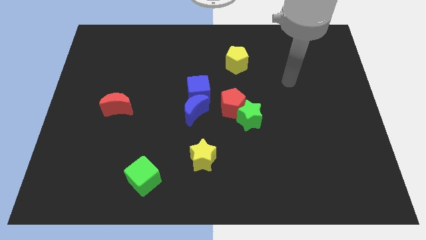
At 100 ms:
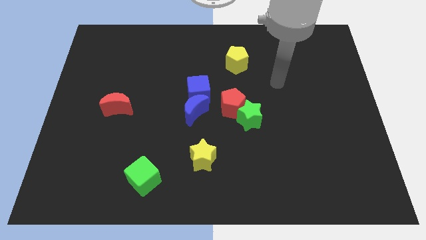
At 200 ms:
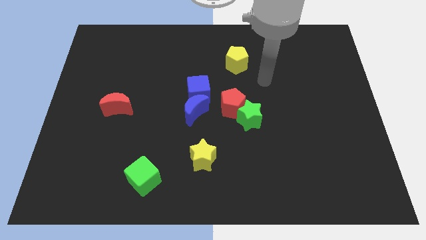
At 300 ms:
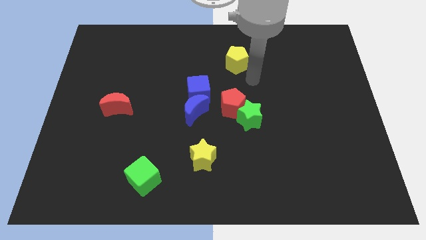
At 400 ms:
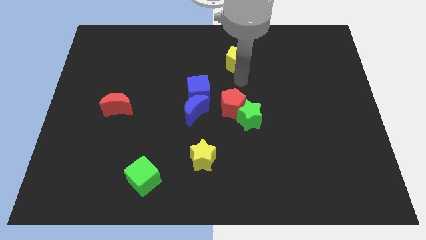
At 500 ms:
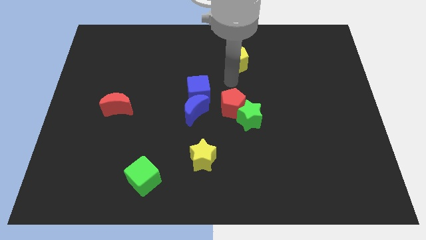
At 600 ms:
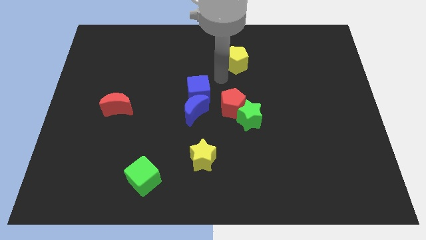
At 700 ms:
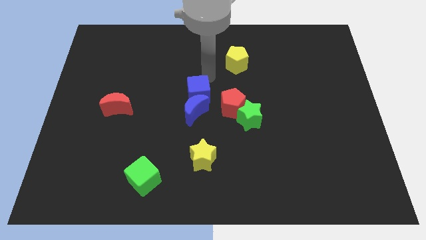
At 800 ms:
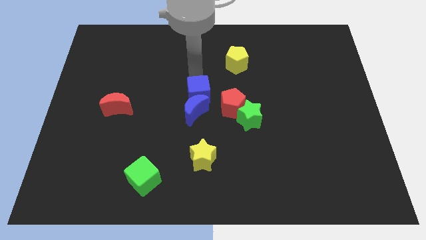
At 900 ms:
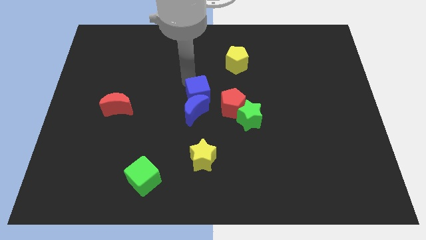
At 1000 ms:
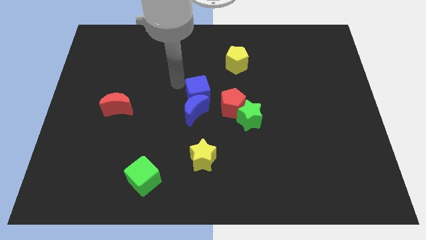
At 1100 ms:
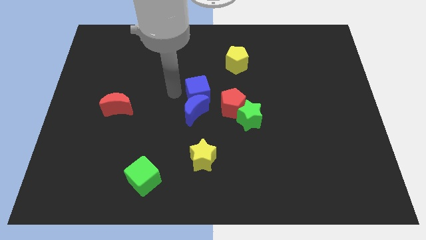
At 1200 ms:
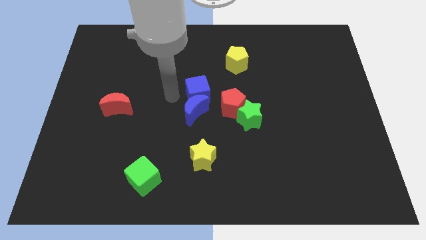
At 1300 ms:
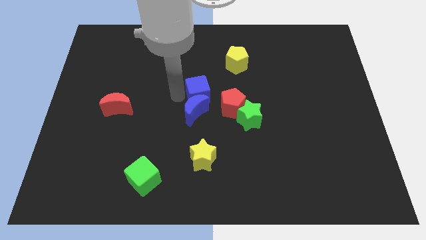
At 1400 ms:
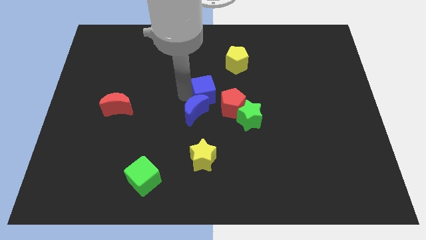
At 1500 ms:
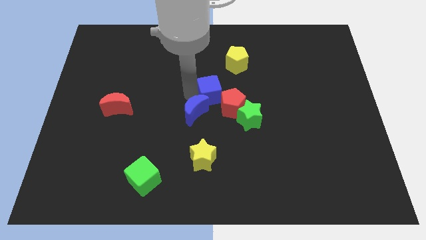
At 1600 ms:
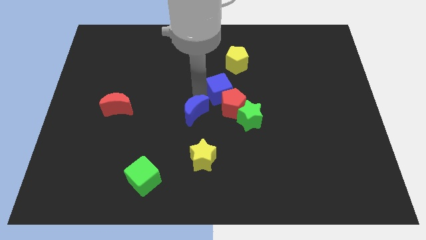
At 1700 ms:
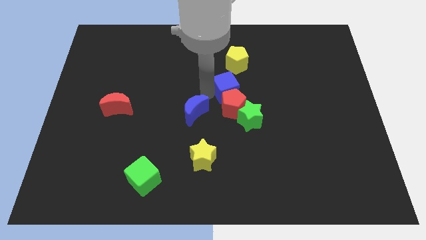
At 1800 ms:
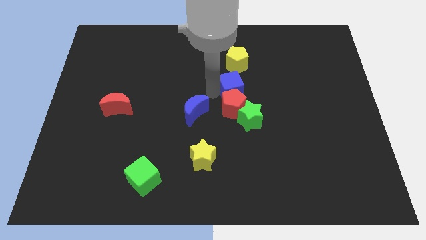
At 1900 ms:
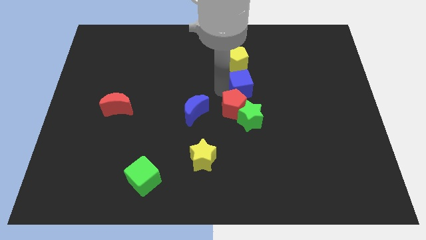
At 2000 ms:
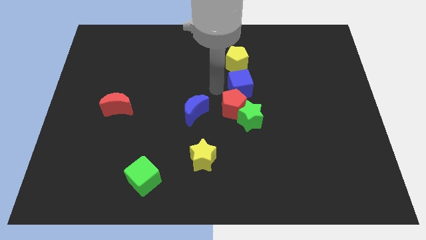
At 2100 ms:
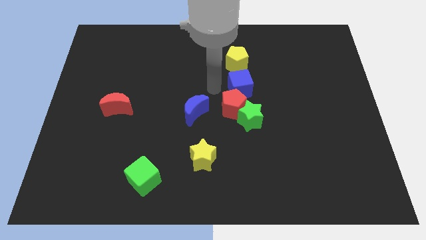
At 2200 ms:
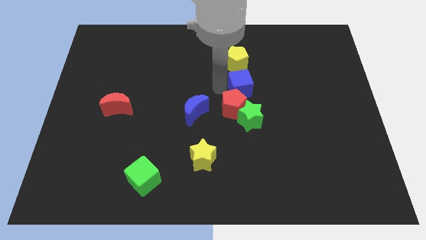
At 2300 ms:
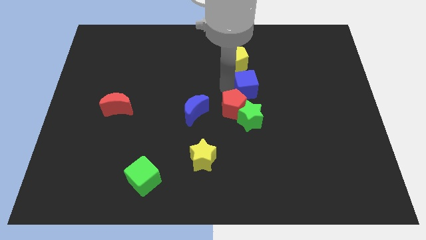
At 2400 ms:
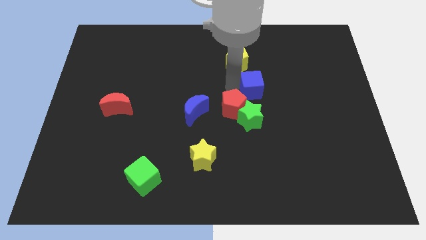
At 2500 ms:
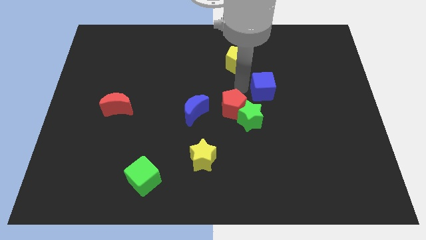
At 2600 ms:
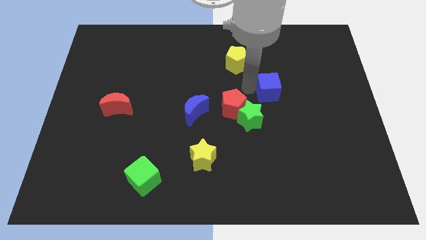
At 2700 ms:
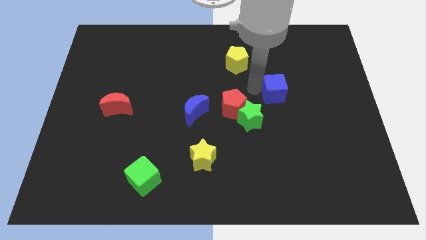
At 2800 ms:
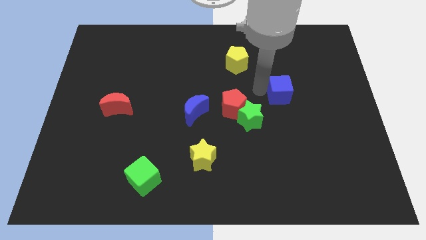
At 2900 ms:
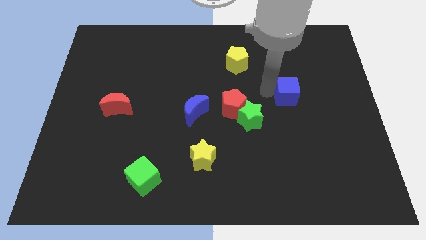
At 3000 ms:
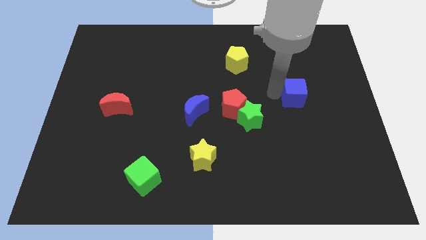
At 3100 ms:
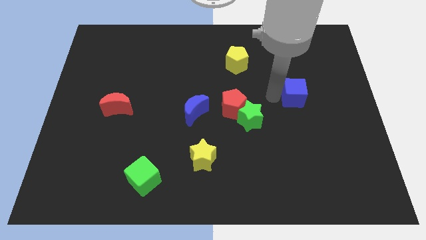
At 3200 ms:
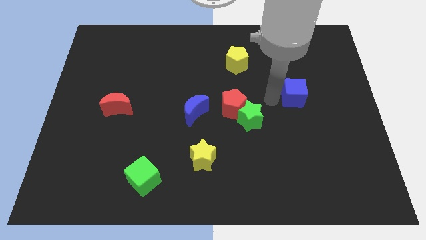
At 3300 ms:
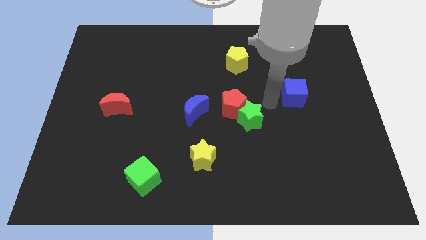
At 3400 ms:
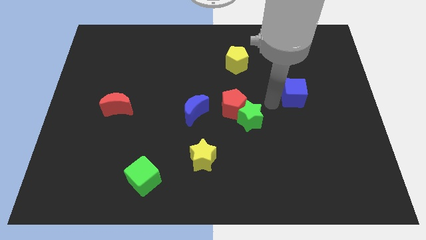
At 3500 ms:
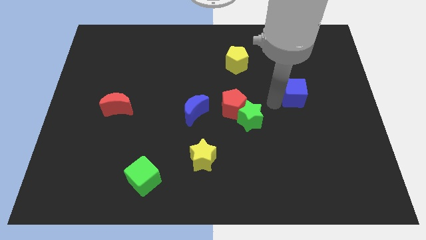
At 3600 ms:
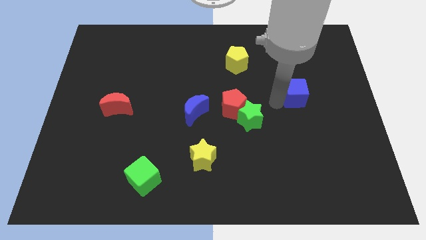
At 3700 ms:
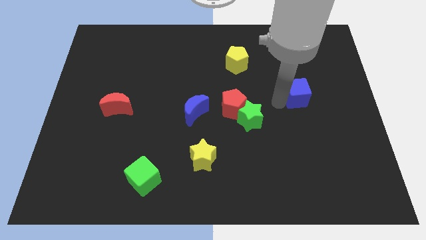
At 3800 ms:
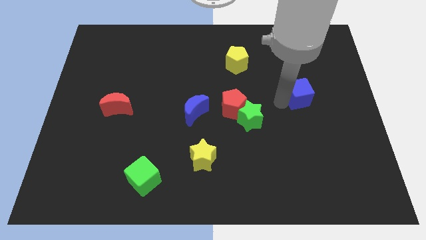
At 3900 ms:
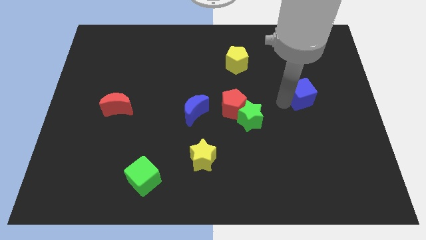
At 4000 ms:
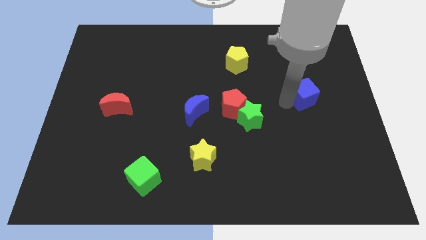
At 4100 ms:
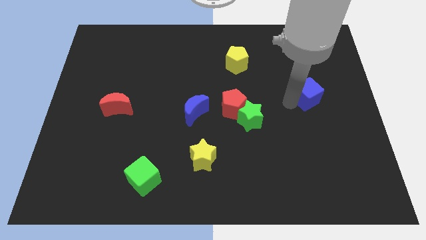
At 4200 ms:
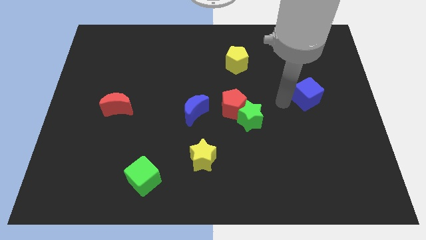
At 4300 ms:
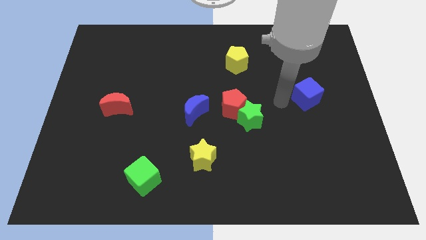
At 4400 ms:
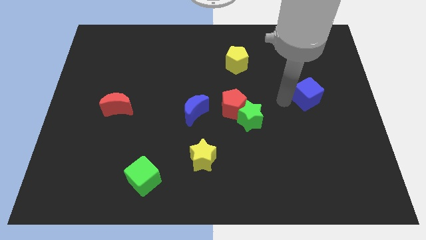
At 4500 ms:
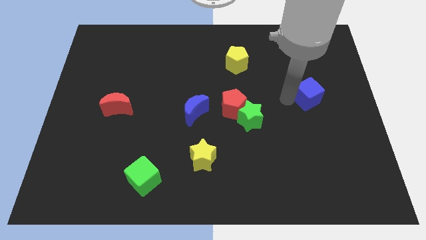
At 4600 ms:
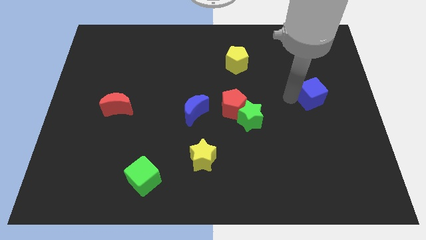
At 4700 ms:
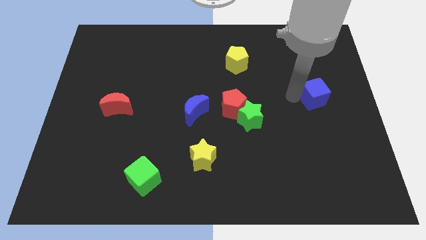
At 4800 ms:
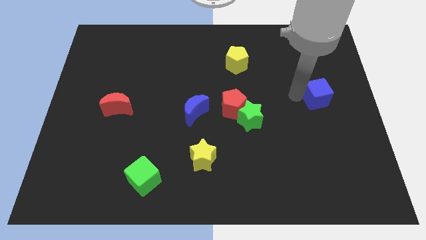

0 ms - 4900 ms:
slide the blue cube to the right side of the board

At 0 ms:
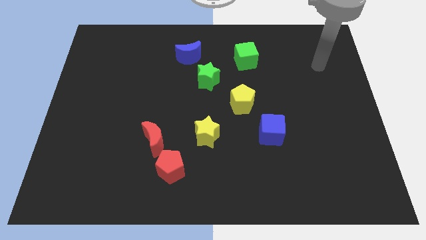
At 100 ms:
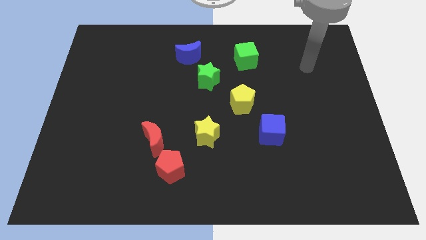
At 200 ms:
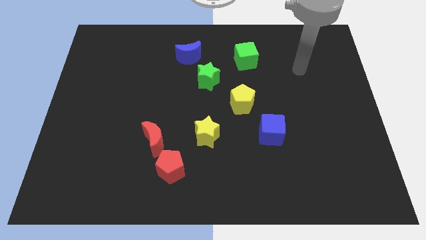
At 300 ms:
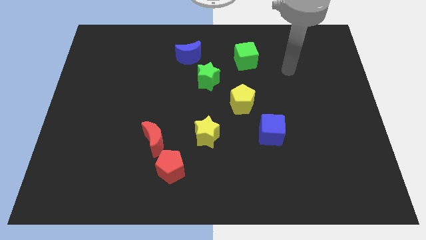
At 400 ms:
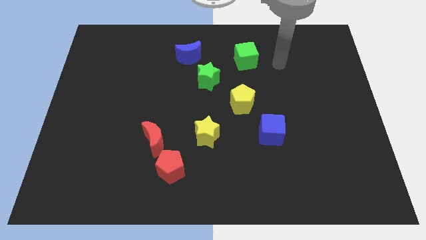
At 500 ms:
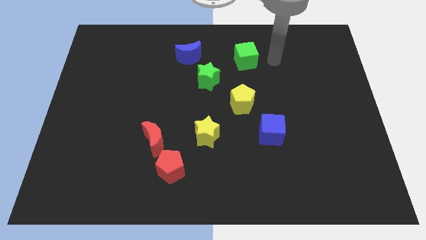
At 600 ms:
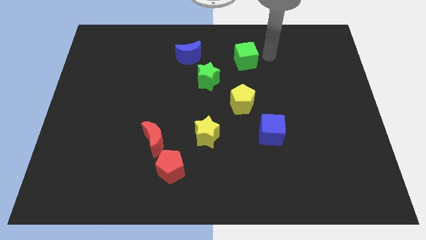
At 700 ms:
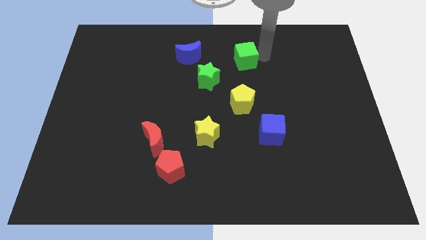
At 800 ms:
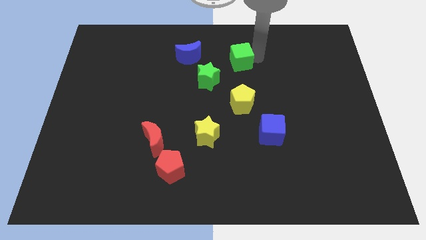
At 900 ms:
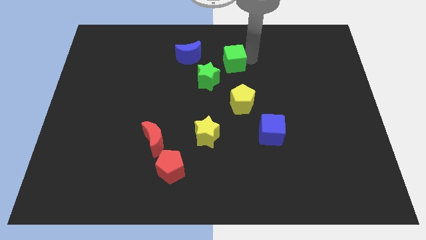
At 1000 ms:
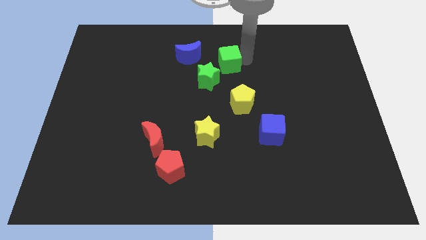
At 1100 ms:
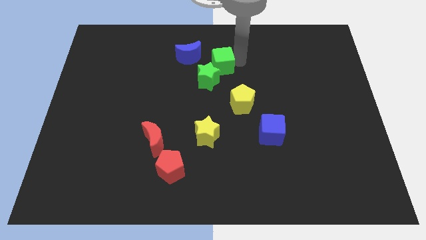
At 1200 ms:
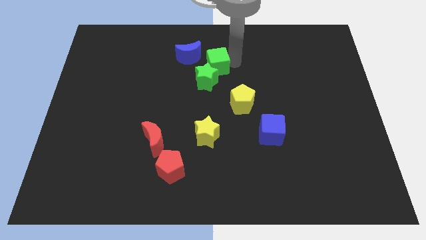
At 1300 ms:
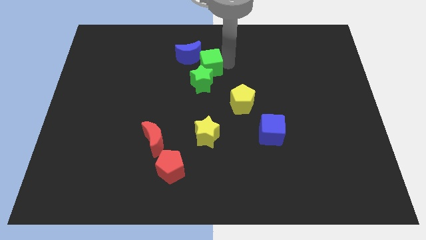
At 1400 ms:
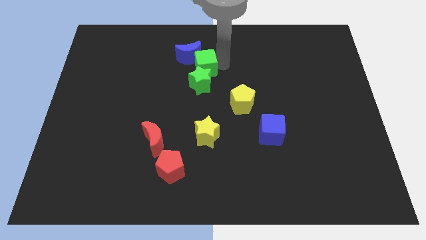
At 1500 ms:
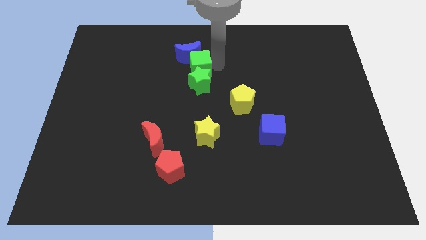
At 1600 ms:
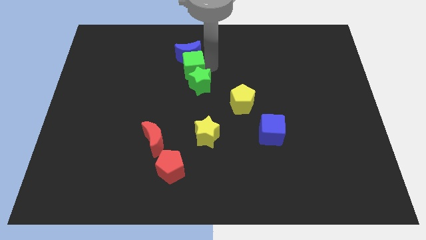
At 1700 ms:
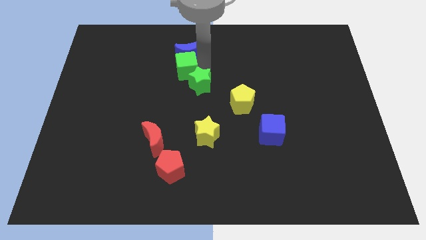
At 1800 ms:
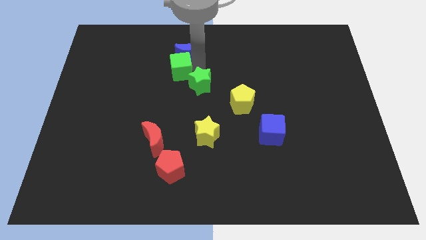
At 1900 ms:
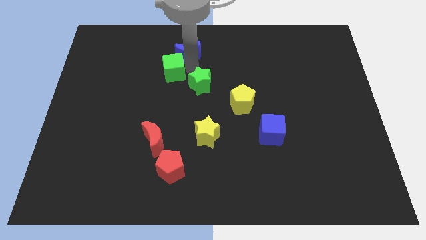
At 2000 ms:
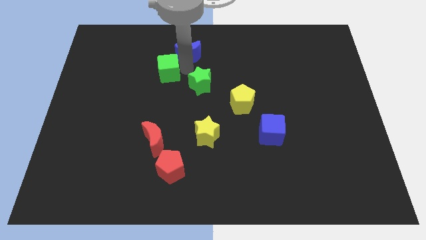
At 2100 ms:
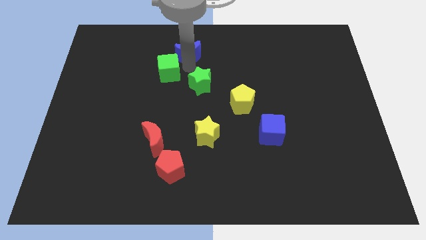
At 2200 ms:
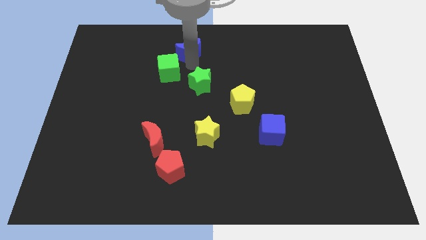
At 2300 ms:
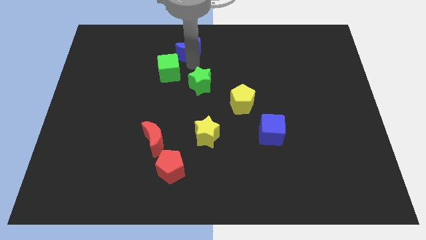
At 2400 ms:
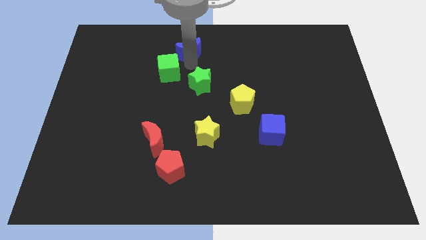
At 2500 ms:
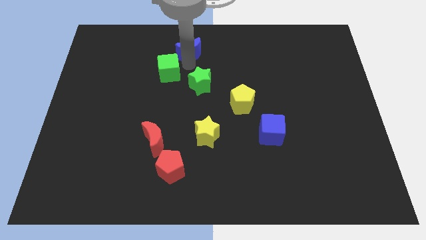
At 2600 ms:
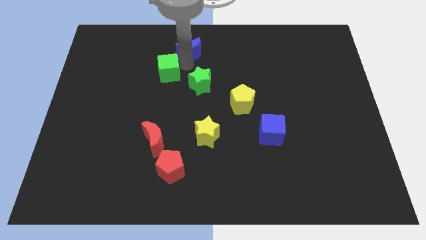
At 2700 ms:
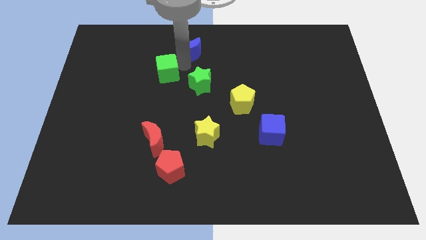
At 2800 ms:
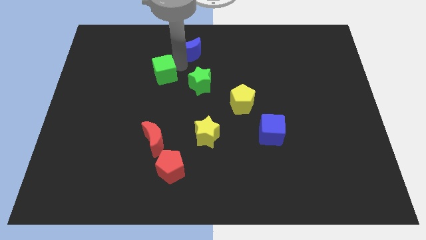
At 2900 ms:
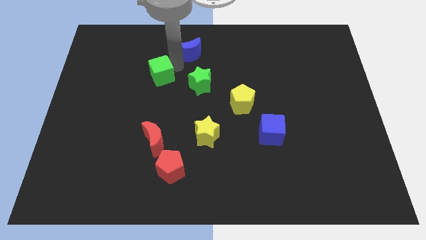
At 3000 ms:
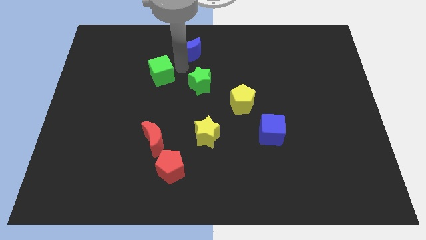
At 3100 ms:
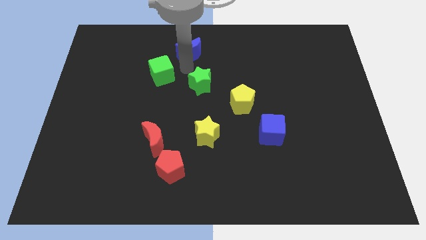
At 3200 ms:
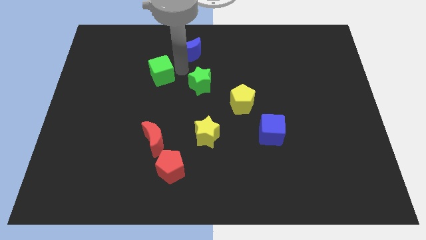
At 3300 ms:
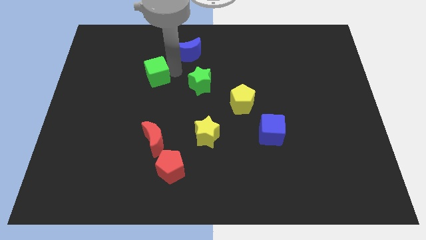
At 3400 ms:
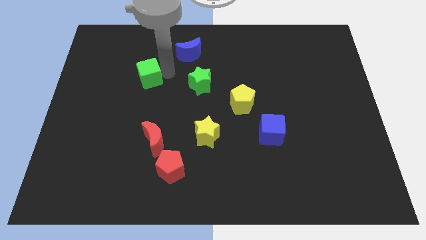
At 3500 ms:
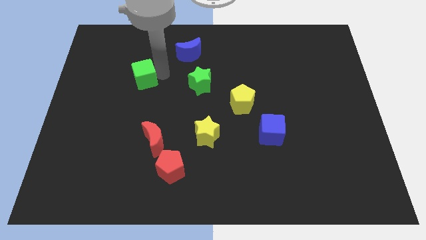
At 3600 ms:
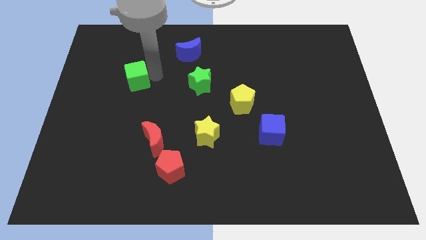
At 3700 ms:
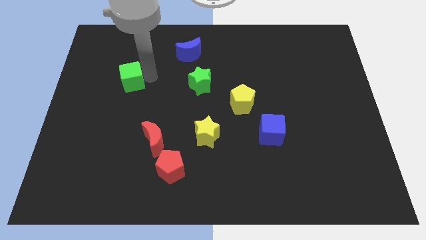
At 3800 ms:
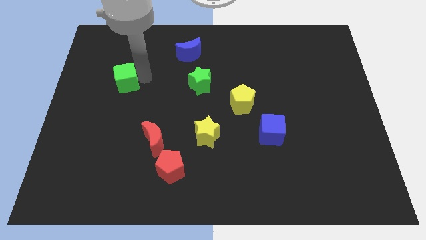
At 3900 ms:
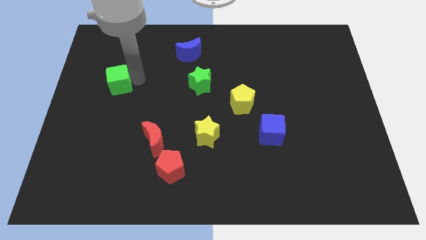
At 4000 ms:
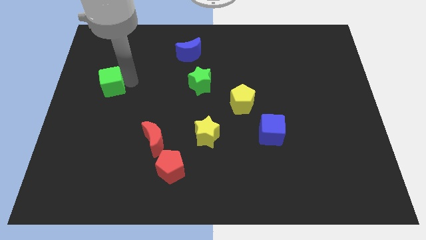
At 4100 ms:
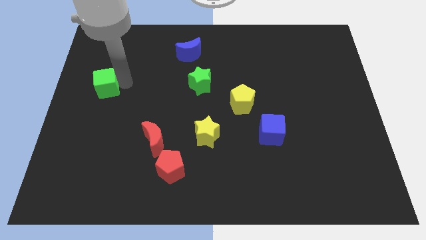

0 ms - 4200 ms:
move the green cube to the center left
